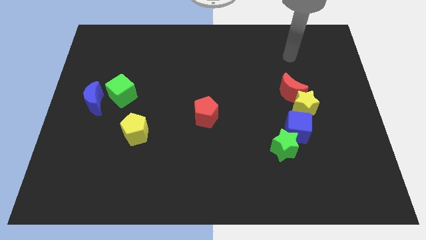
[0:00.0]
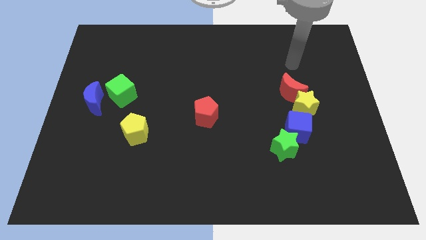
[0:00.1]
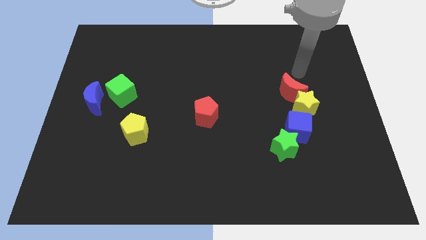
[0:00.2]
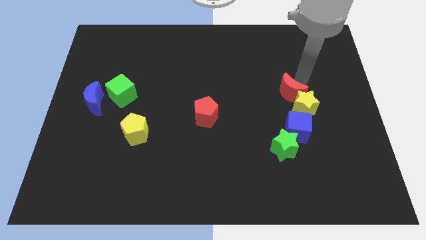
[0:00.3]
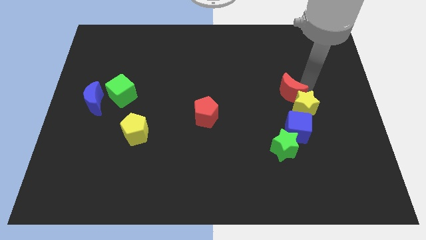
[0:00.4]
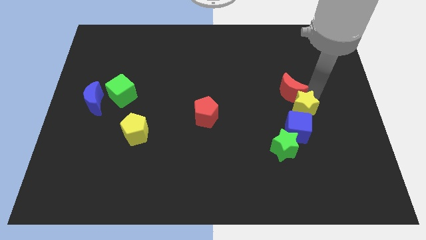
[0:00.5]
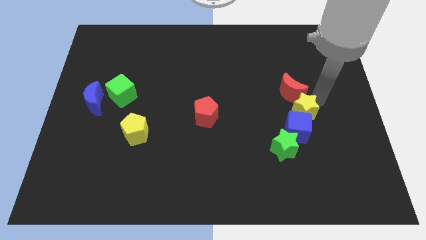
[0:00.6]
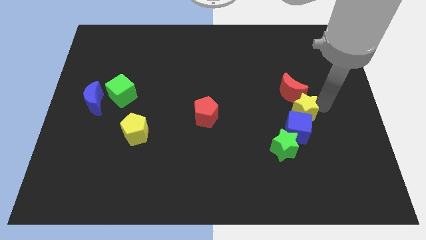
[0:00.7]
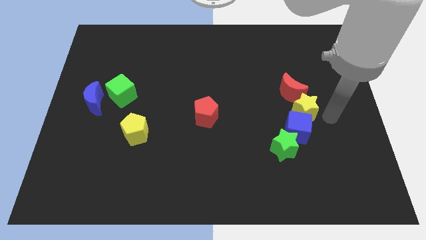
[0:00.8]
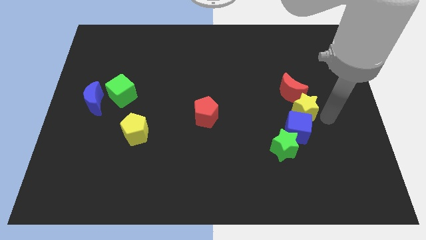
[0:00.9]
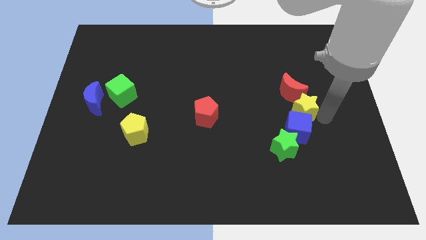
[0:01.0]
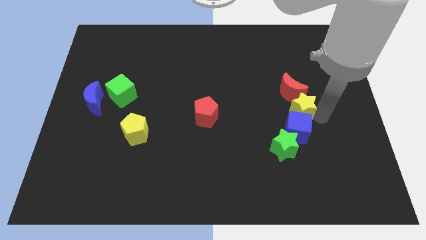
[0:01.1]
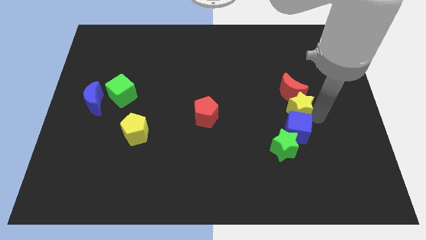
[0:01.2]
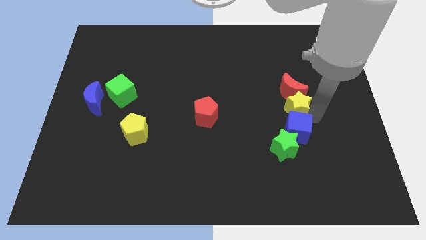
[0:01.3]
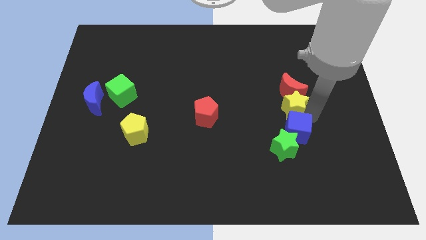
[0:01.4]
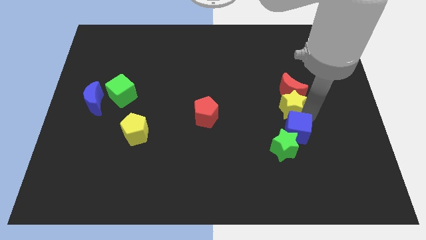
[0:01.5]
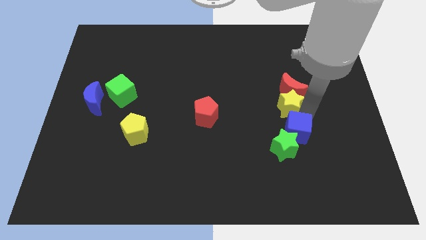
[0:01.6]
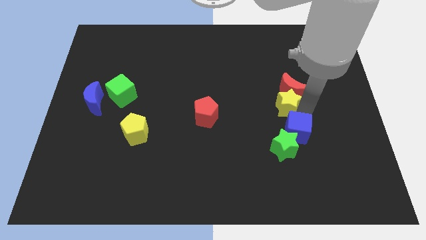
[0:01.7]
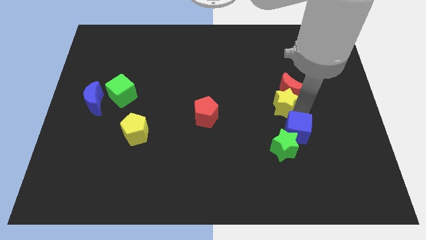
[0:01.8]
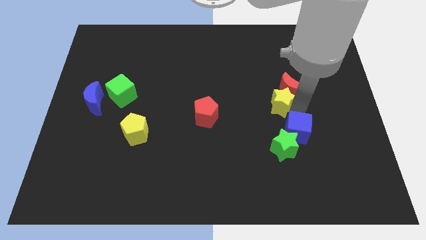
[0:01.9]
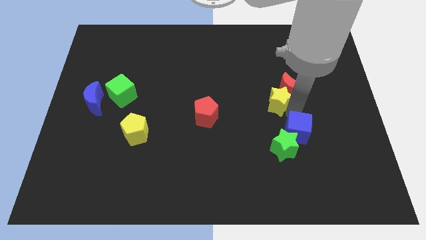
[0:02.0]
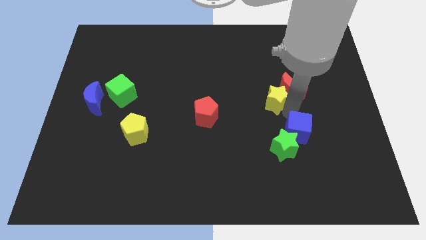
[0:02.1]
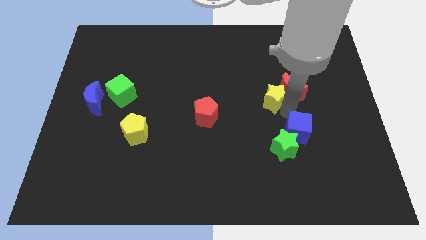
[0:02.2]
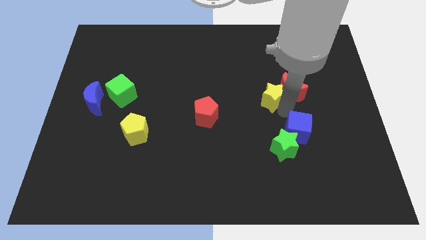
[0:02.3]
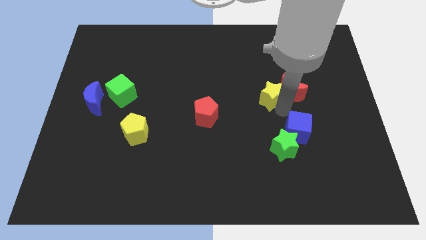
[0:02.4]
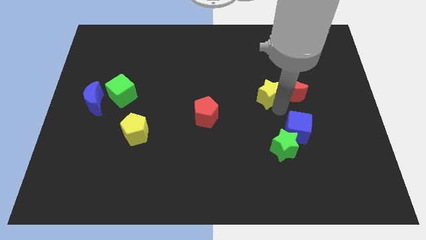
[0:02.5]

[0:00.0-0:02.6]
slide the yellow star a little bit diagonally up and left

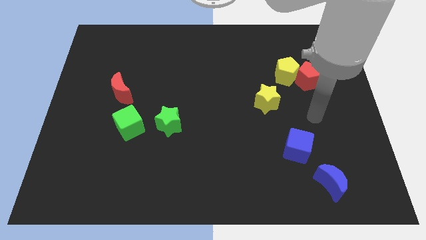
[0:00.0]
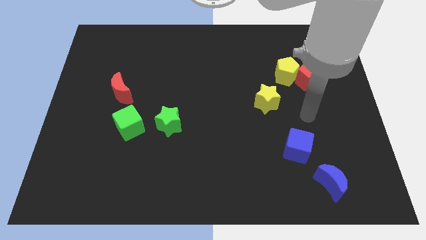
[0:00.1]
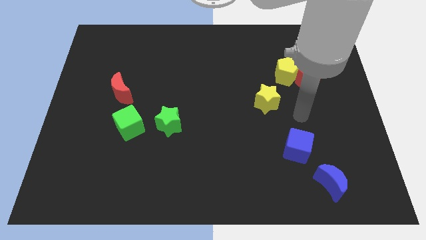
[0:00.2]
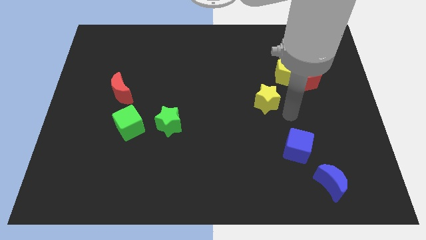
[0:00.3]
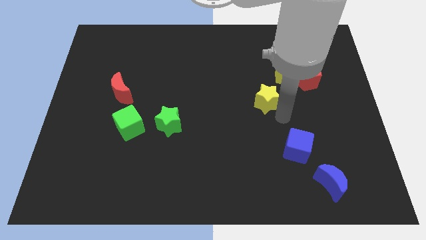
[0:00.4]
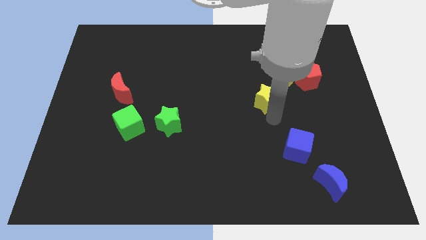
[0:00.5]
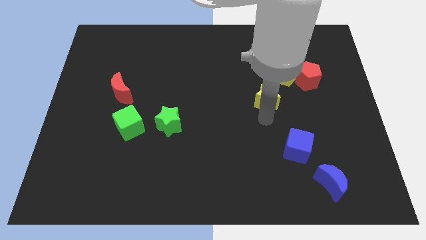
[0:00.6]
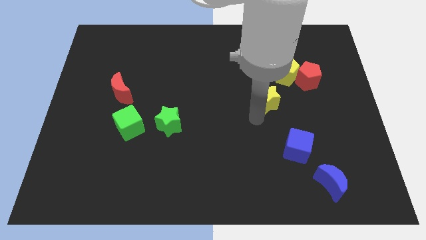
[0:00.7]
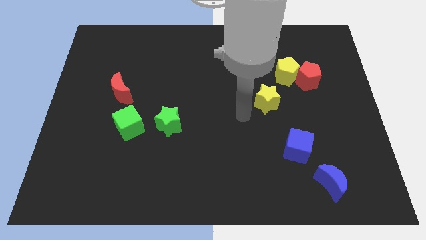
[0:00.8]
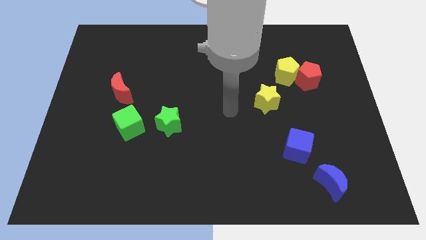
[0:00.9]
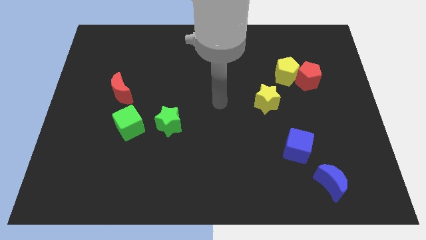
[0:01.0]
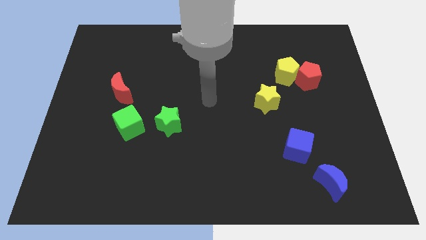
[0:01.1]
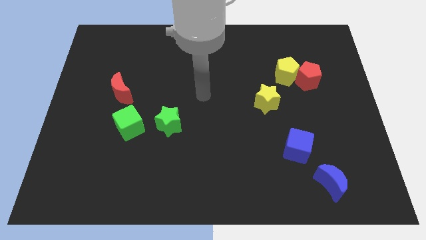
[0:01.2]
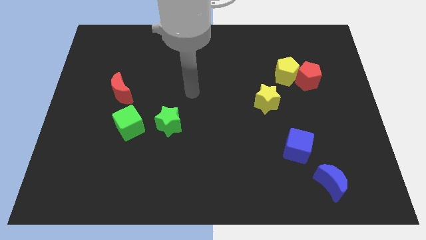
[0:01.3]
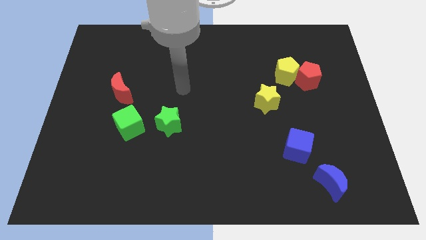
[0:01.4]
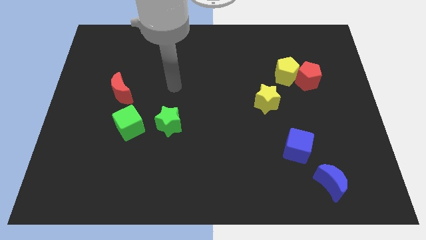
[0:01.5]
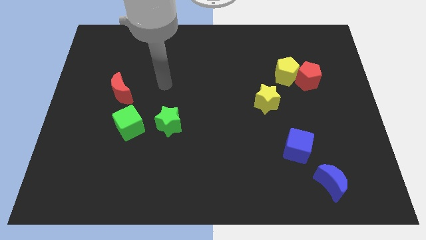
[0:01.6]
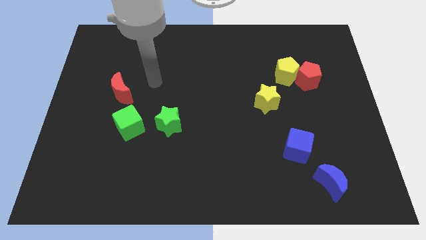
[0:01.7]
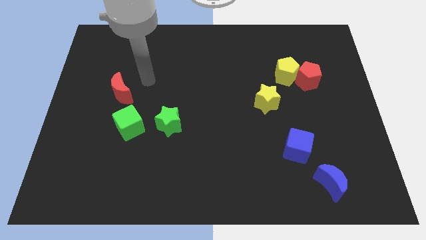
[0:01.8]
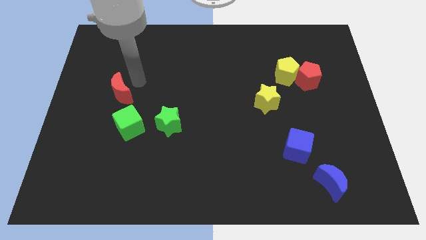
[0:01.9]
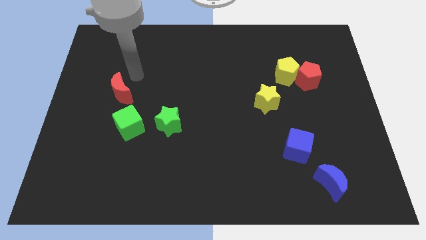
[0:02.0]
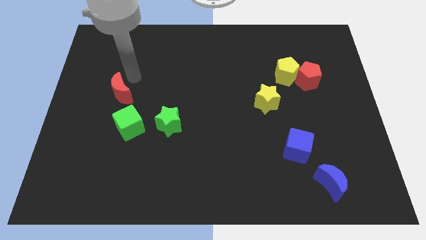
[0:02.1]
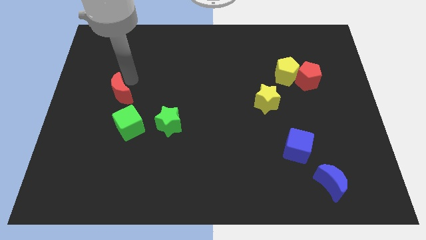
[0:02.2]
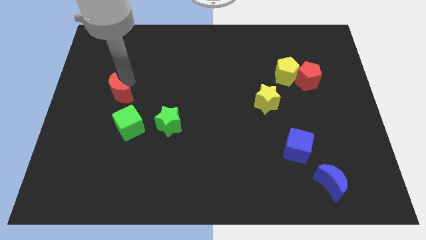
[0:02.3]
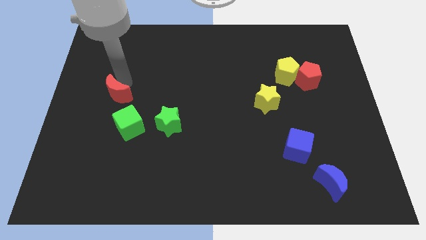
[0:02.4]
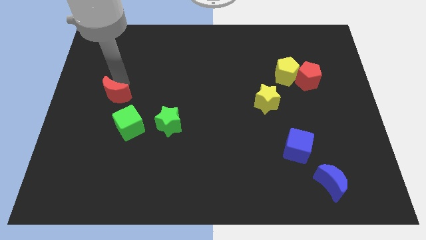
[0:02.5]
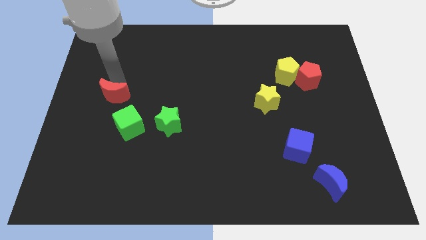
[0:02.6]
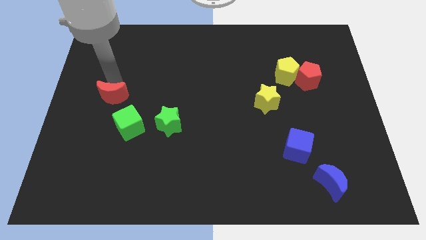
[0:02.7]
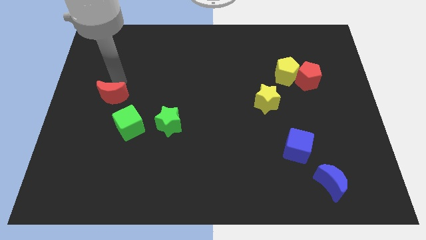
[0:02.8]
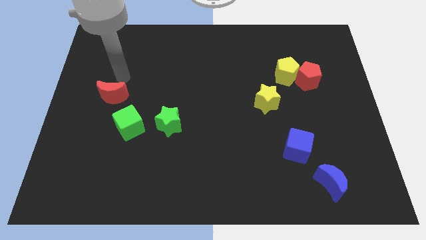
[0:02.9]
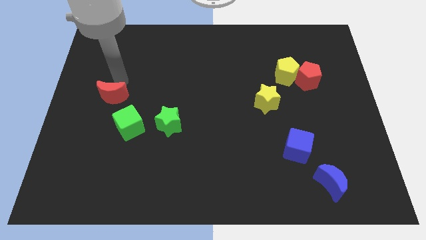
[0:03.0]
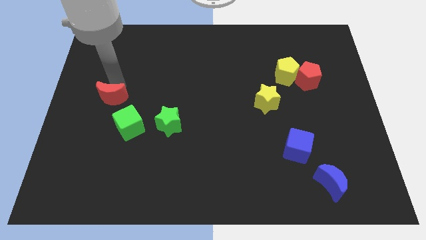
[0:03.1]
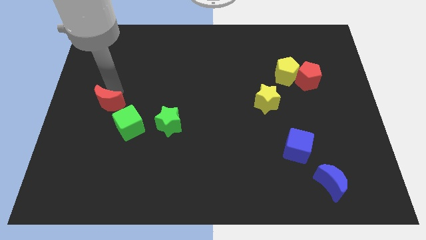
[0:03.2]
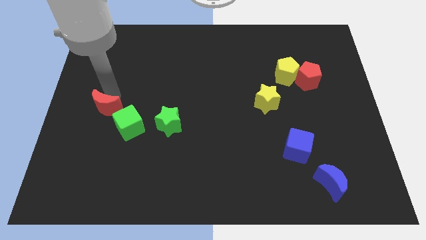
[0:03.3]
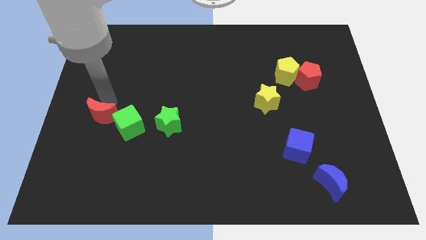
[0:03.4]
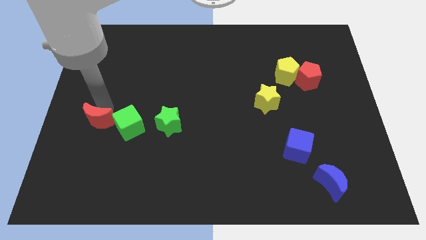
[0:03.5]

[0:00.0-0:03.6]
slightly move the red moon down

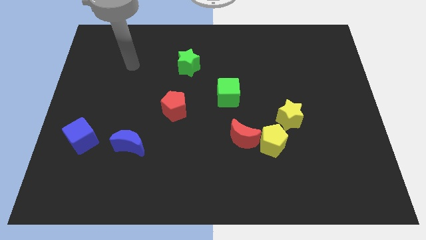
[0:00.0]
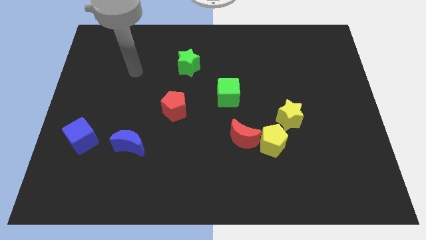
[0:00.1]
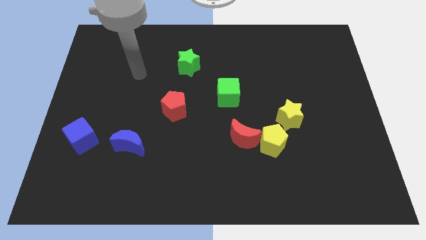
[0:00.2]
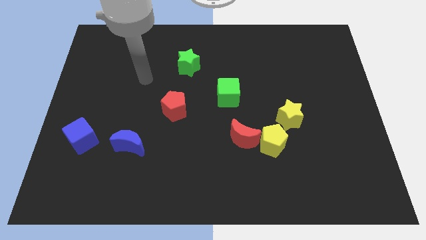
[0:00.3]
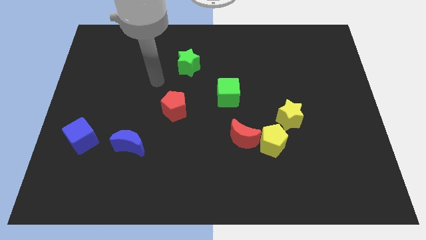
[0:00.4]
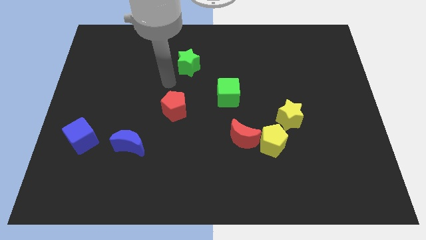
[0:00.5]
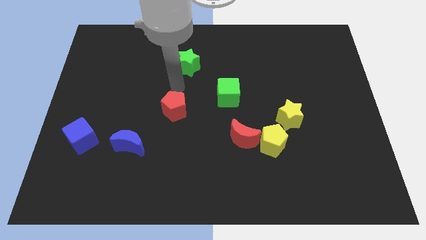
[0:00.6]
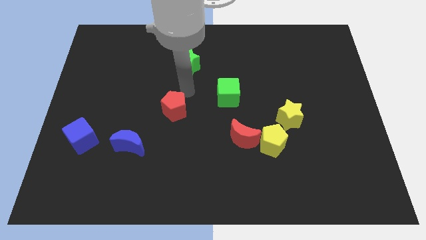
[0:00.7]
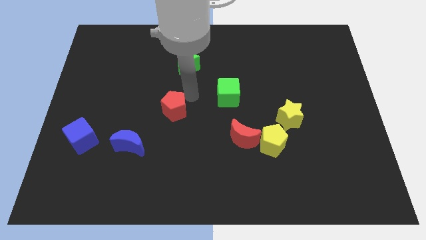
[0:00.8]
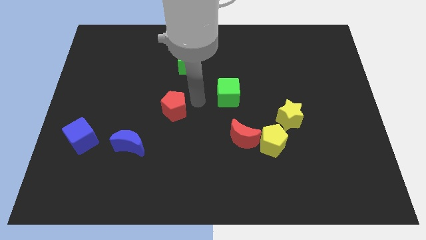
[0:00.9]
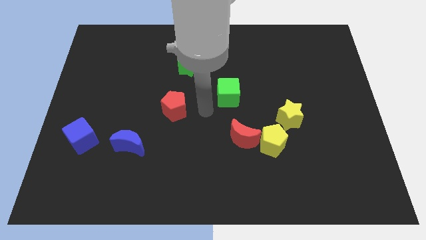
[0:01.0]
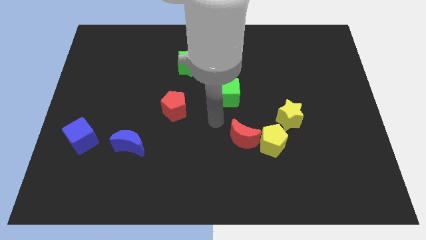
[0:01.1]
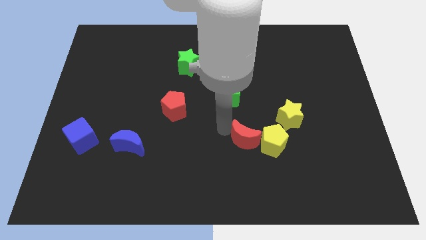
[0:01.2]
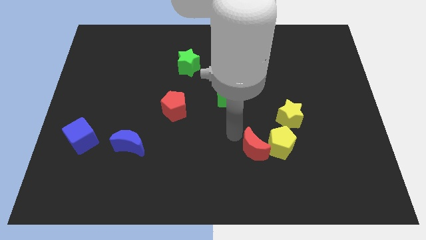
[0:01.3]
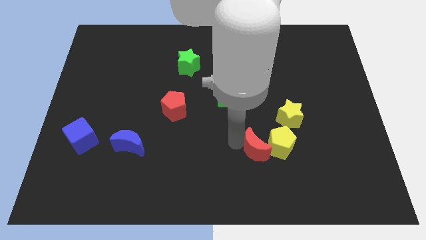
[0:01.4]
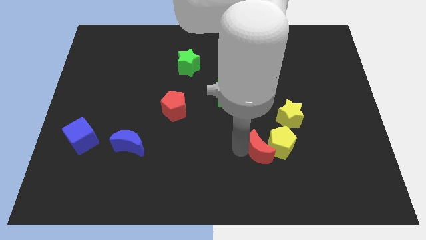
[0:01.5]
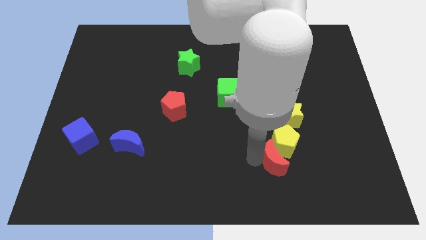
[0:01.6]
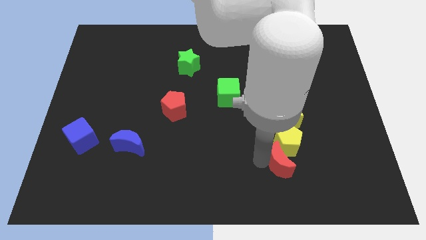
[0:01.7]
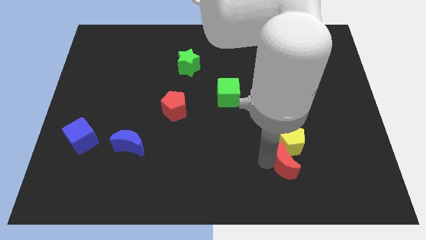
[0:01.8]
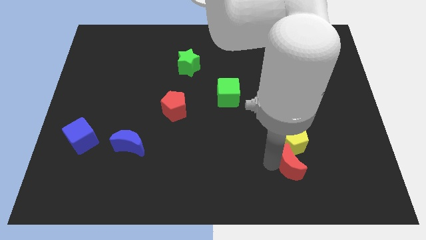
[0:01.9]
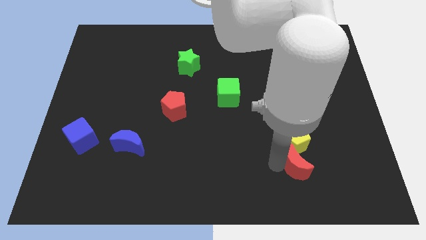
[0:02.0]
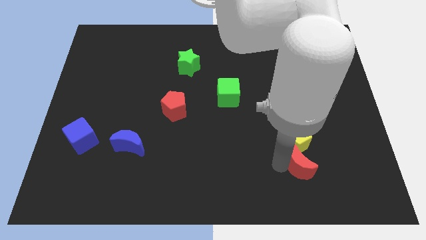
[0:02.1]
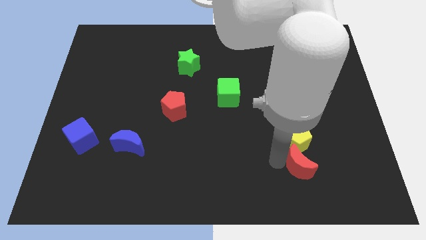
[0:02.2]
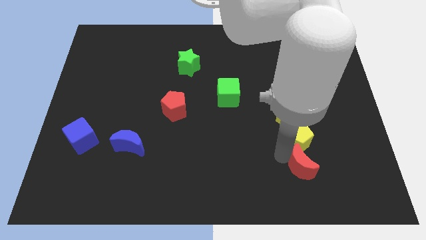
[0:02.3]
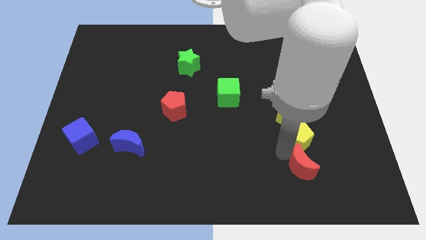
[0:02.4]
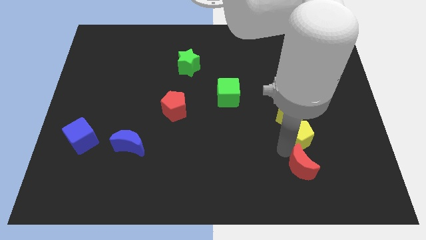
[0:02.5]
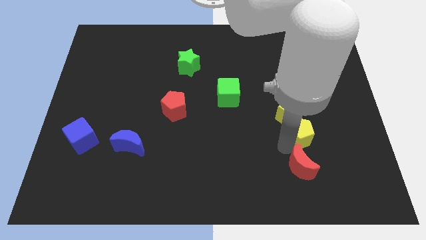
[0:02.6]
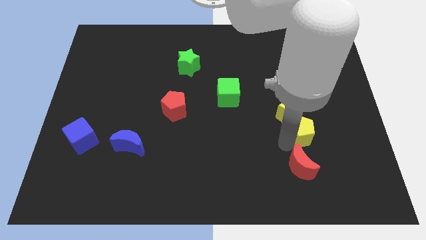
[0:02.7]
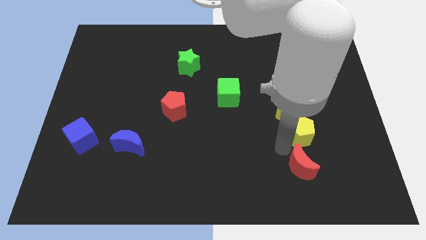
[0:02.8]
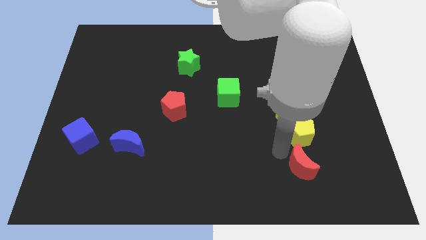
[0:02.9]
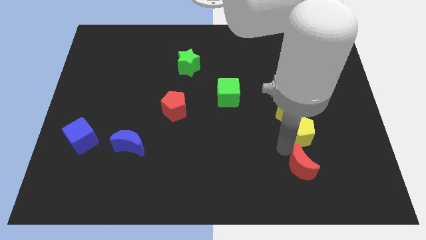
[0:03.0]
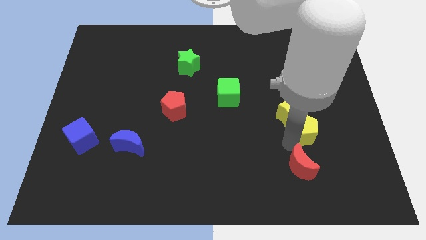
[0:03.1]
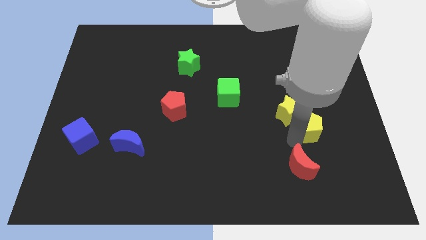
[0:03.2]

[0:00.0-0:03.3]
move the yellow pentagon up and right slightly
